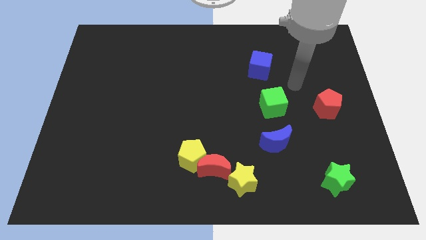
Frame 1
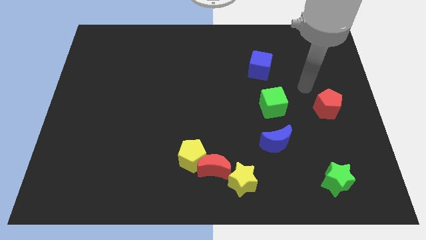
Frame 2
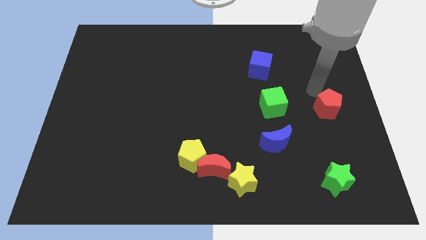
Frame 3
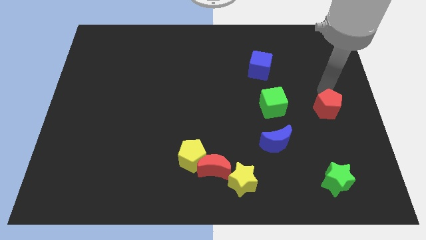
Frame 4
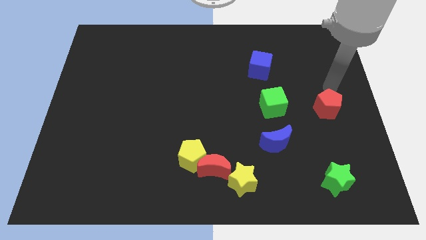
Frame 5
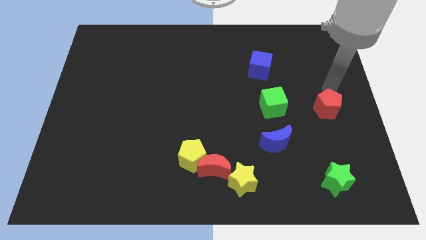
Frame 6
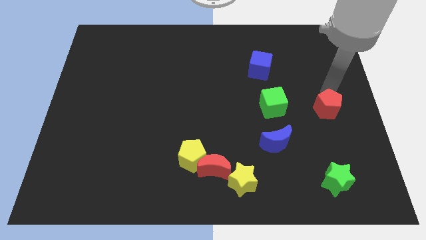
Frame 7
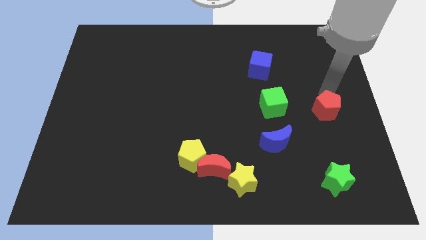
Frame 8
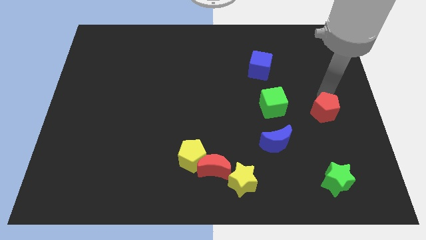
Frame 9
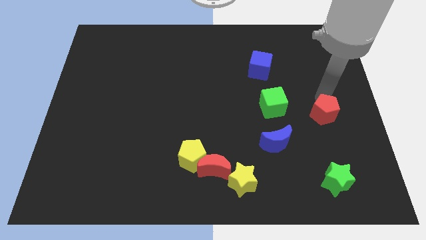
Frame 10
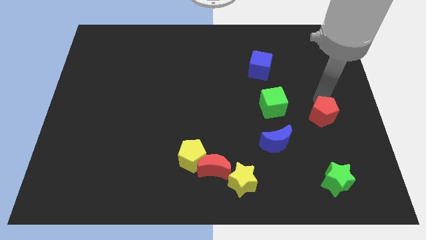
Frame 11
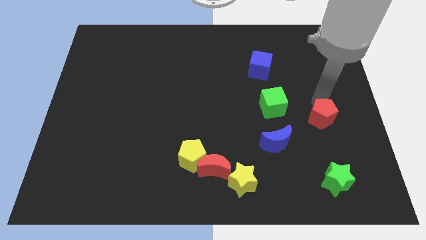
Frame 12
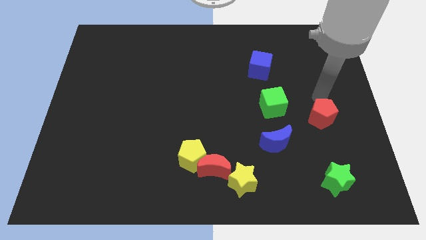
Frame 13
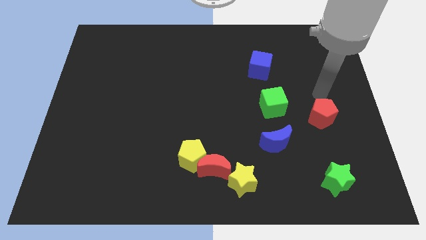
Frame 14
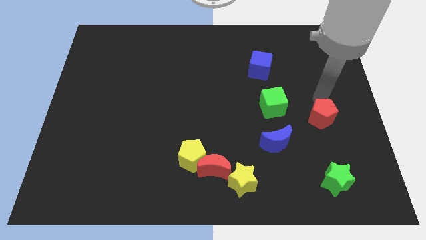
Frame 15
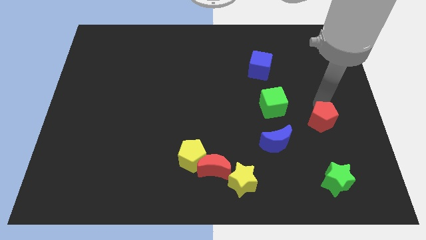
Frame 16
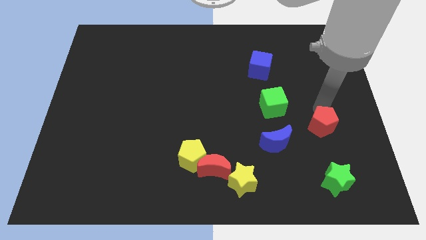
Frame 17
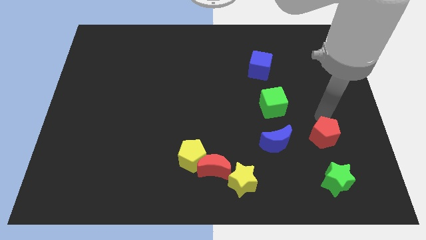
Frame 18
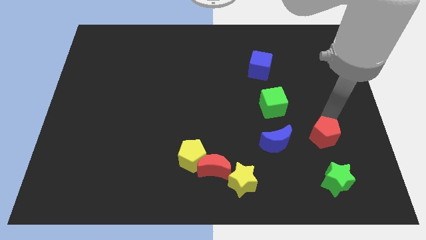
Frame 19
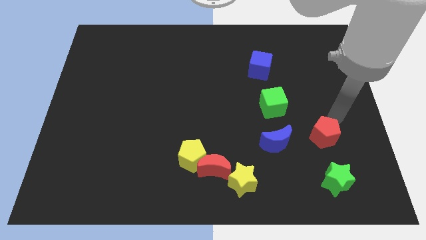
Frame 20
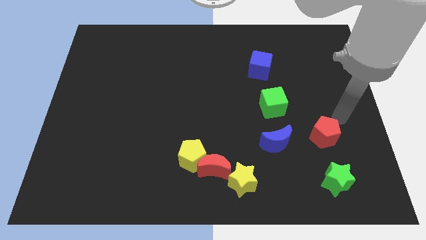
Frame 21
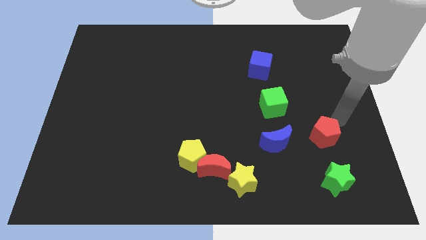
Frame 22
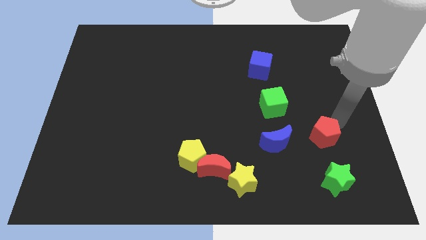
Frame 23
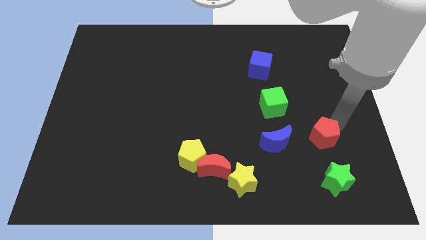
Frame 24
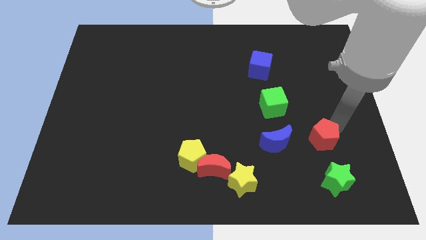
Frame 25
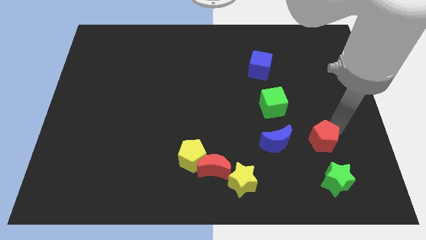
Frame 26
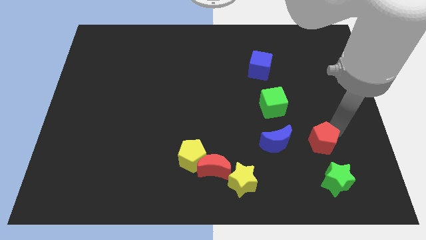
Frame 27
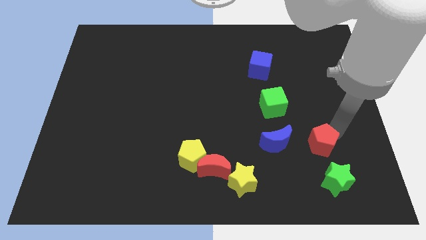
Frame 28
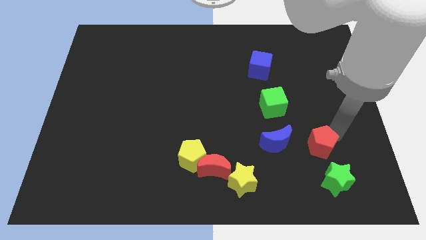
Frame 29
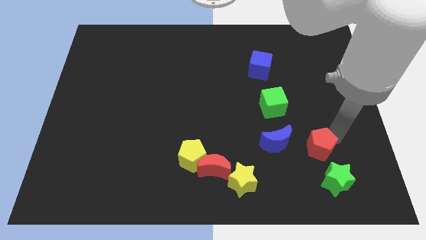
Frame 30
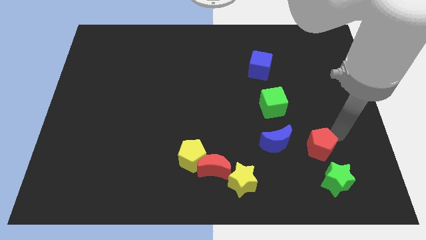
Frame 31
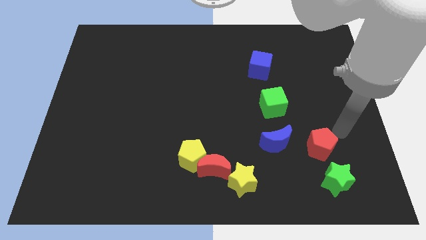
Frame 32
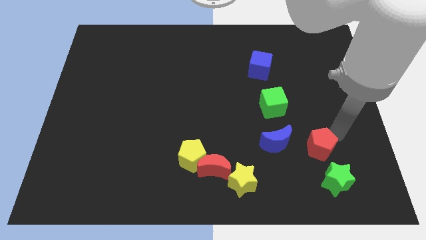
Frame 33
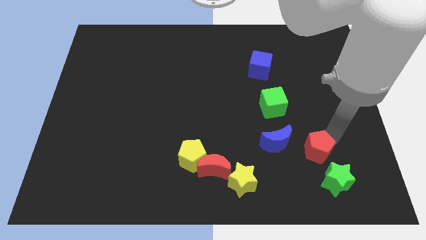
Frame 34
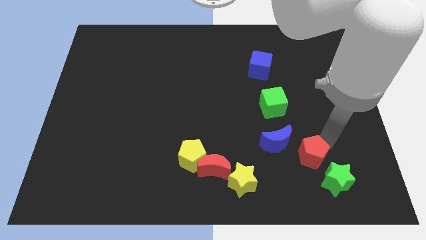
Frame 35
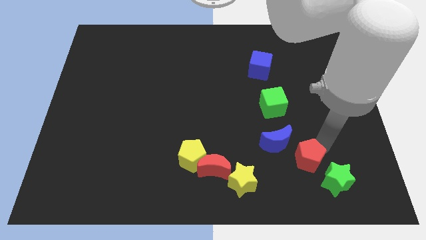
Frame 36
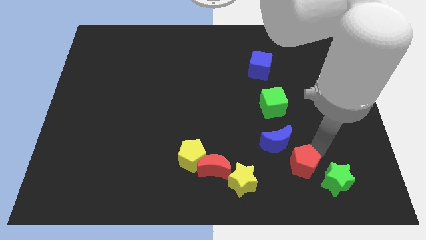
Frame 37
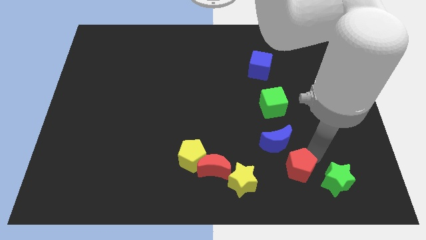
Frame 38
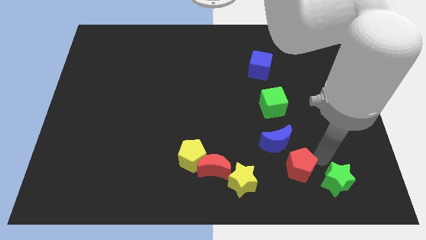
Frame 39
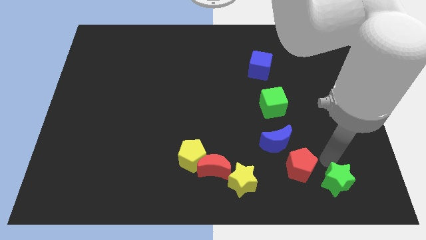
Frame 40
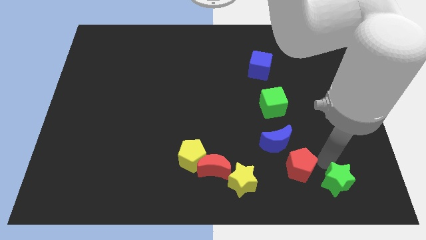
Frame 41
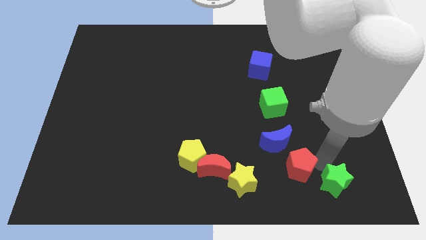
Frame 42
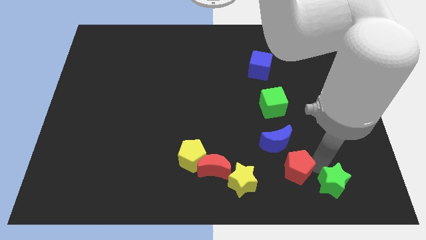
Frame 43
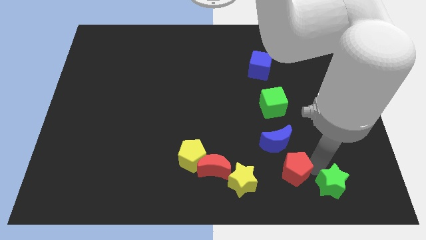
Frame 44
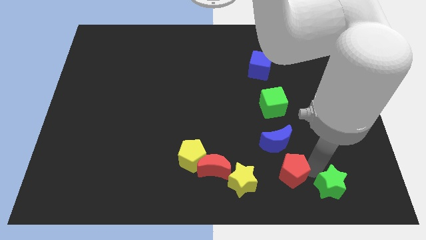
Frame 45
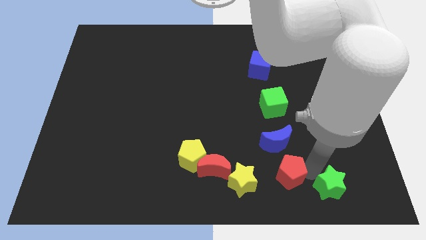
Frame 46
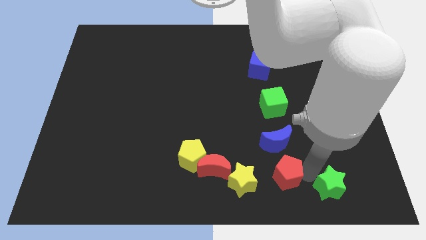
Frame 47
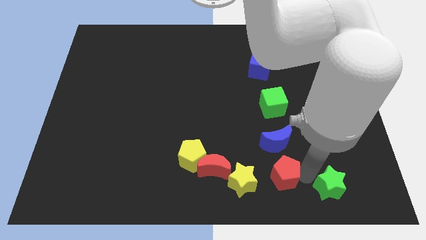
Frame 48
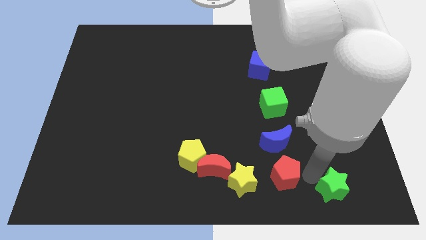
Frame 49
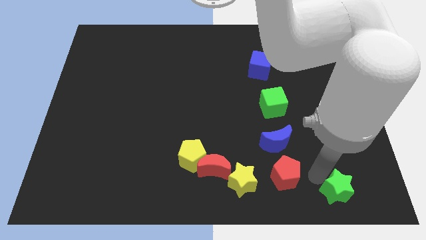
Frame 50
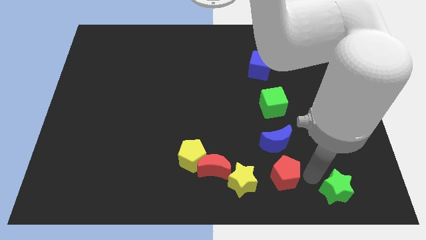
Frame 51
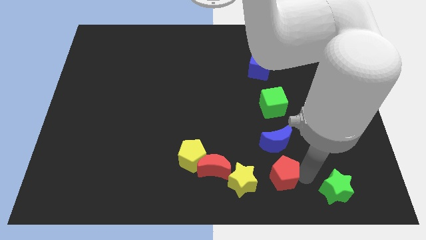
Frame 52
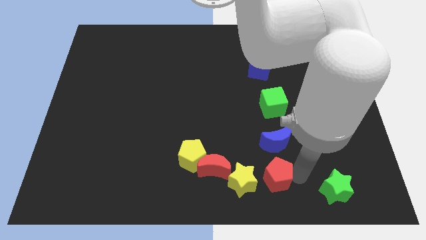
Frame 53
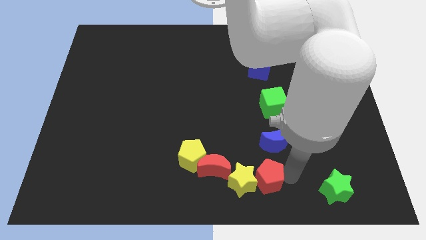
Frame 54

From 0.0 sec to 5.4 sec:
push the red pentagon to the yellow star

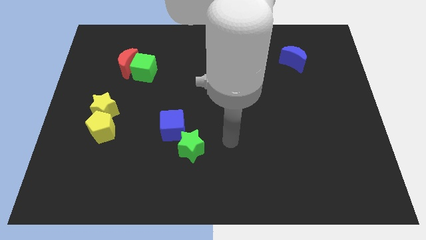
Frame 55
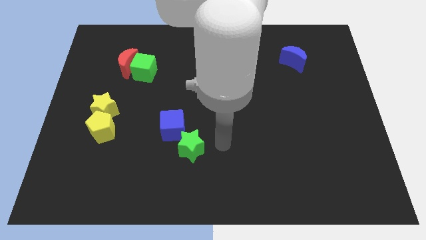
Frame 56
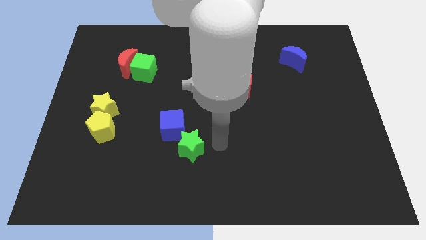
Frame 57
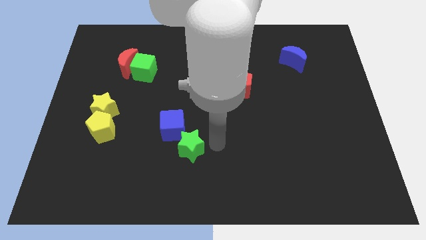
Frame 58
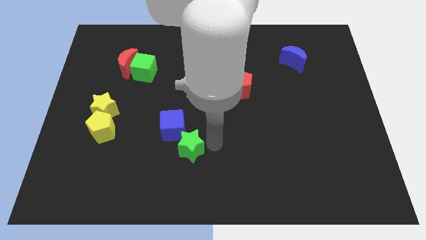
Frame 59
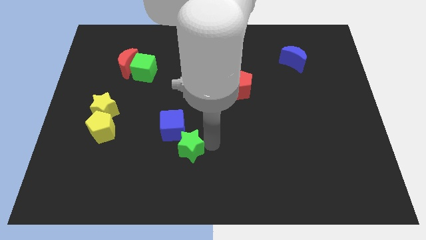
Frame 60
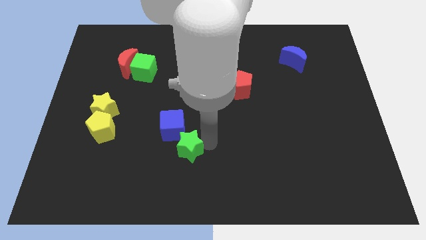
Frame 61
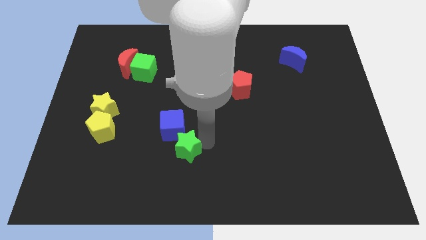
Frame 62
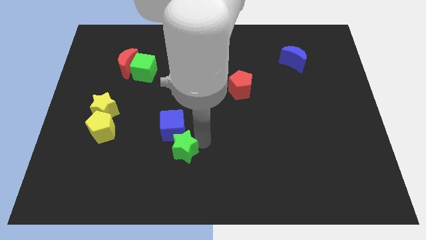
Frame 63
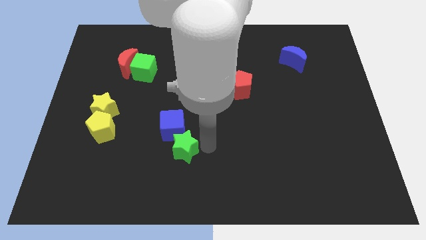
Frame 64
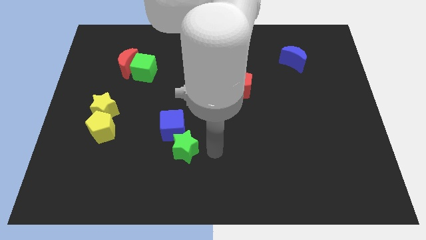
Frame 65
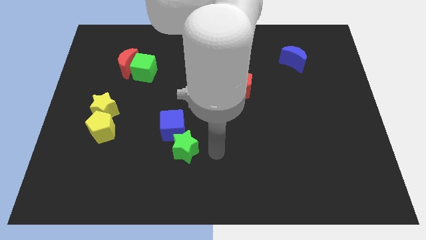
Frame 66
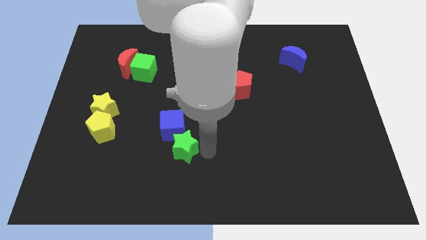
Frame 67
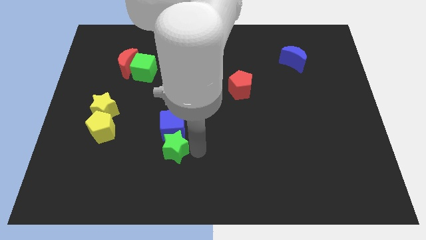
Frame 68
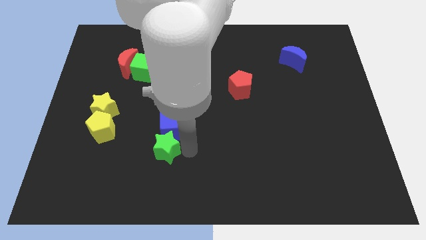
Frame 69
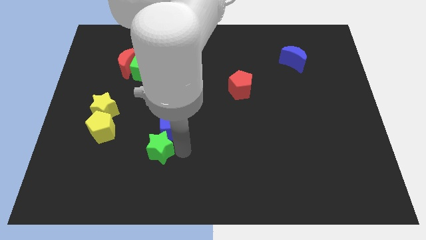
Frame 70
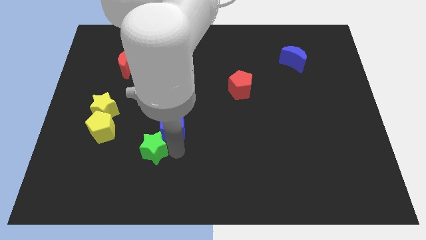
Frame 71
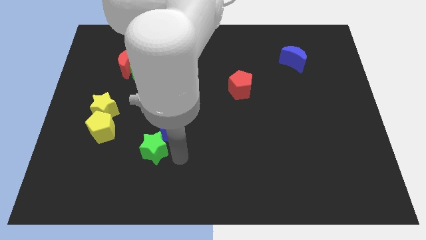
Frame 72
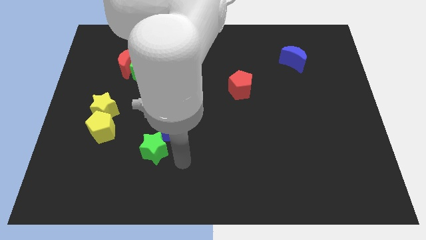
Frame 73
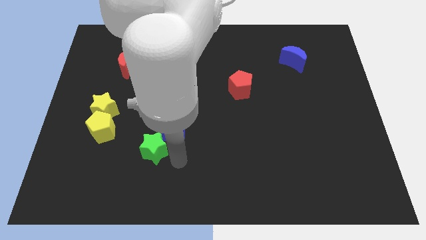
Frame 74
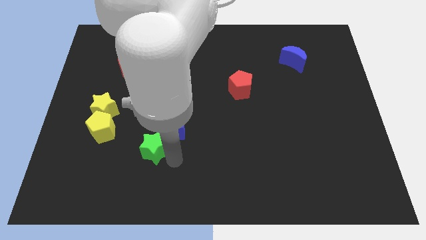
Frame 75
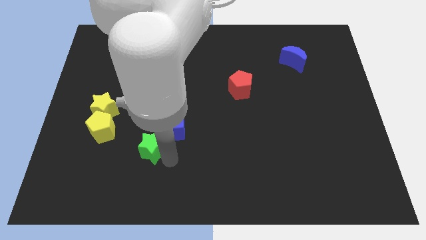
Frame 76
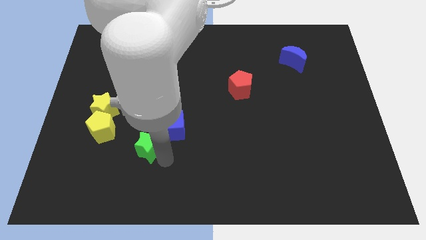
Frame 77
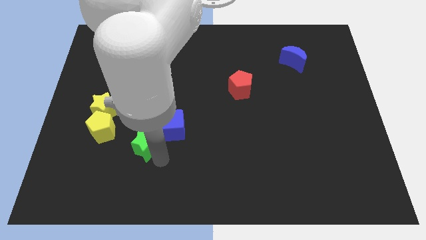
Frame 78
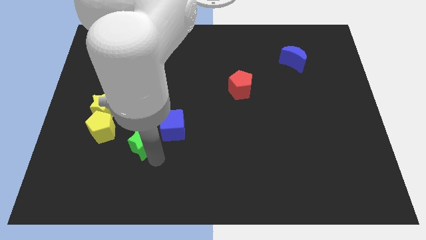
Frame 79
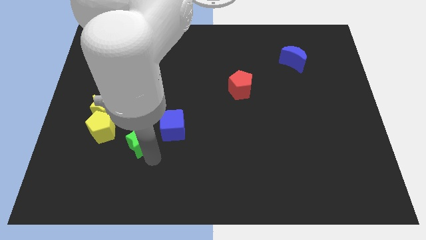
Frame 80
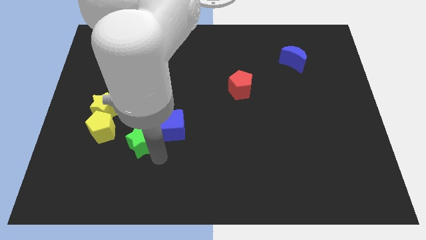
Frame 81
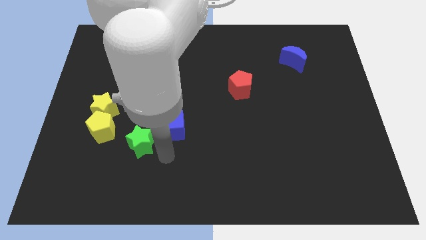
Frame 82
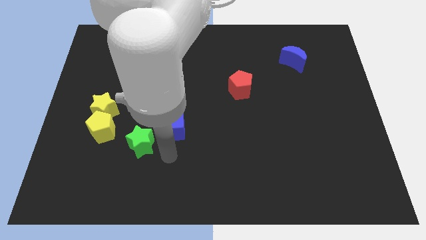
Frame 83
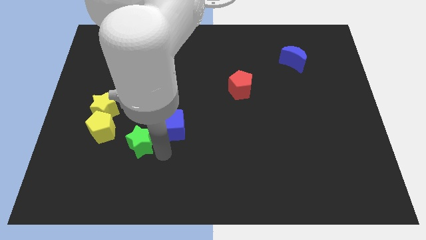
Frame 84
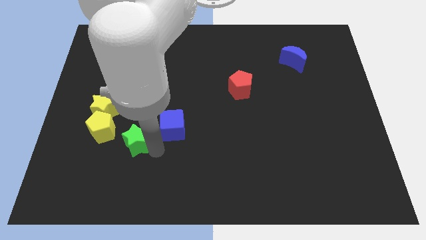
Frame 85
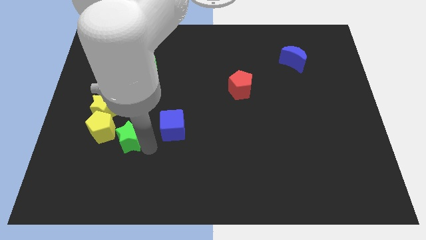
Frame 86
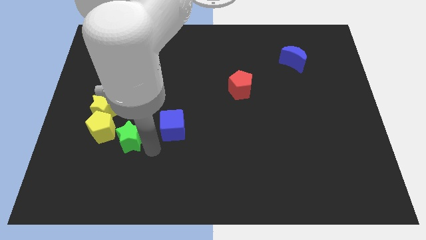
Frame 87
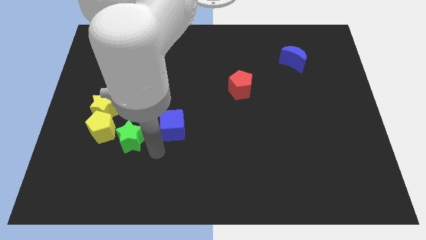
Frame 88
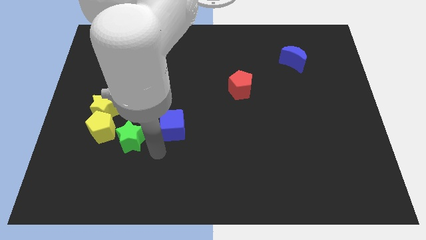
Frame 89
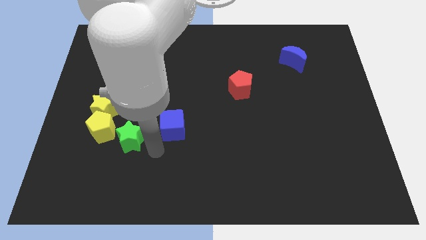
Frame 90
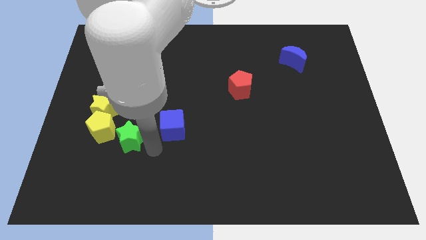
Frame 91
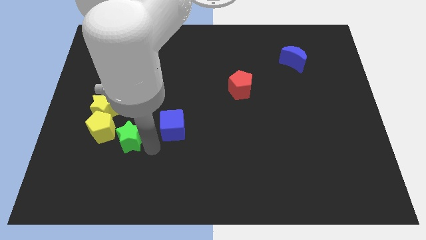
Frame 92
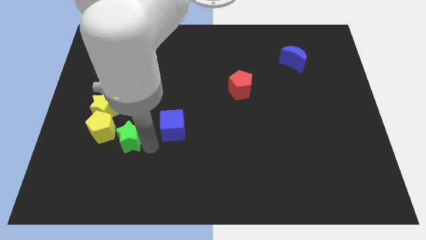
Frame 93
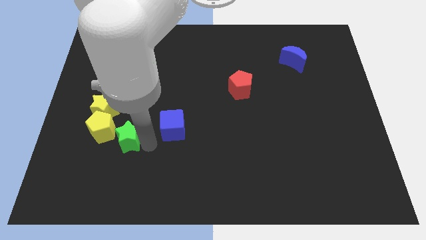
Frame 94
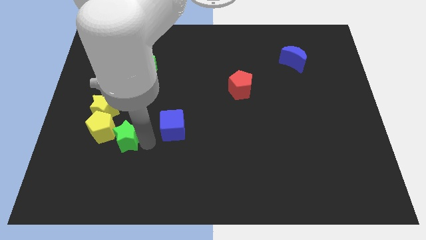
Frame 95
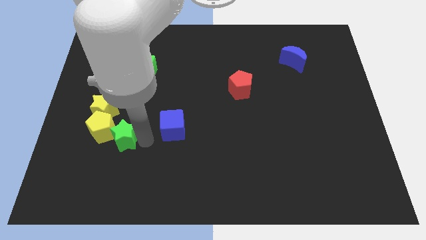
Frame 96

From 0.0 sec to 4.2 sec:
slide the green star close to the yellow pentagon
